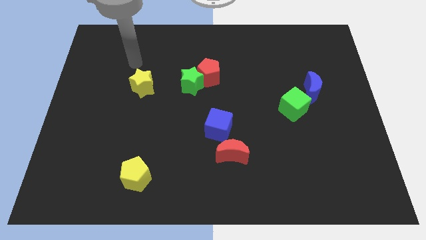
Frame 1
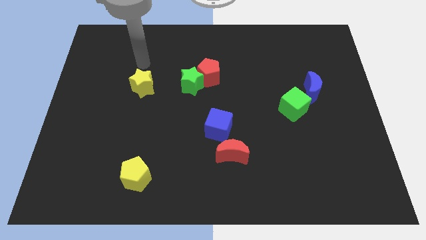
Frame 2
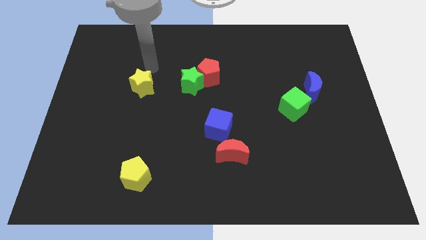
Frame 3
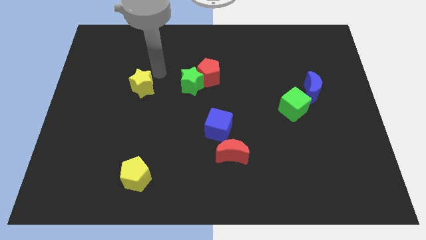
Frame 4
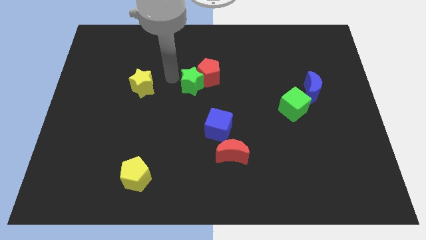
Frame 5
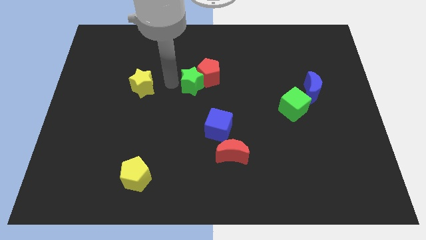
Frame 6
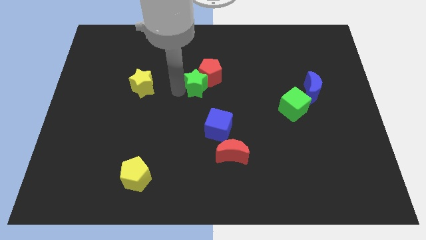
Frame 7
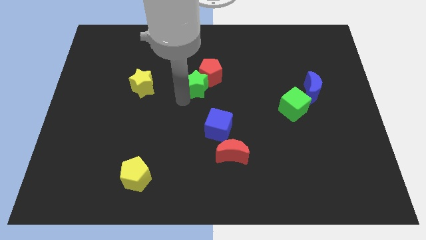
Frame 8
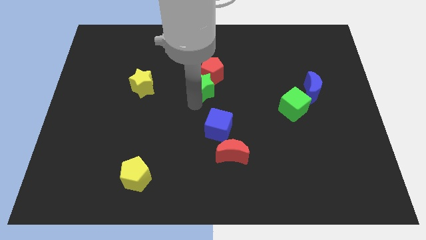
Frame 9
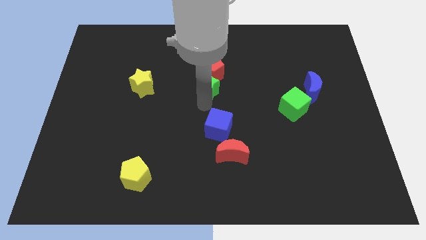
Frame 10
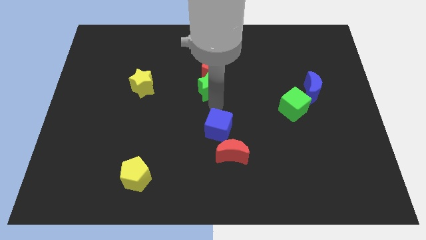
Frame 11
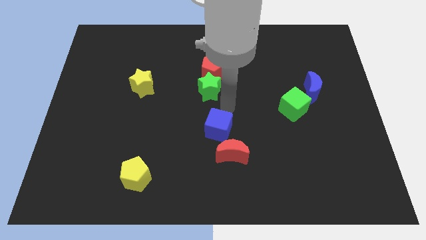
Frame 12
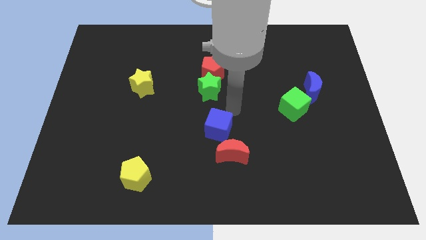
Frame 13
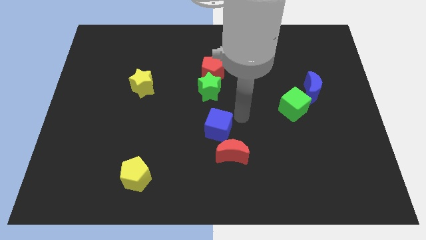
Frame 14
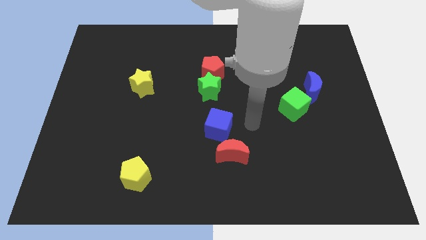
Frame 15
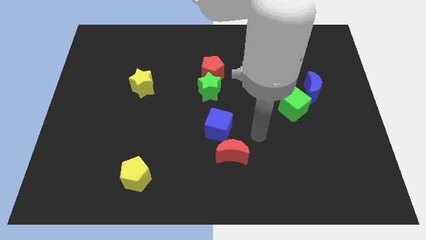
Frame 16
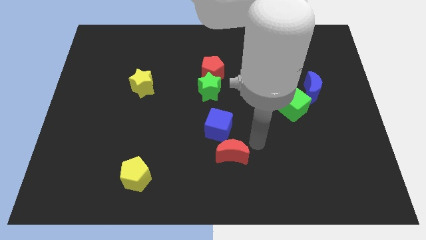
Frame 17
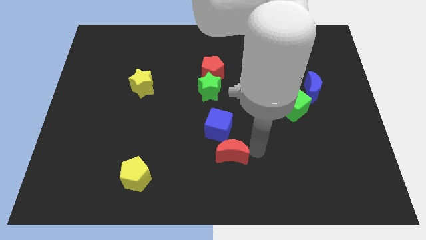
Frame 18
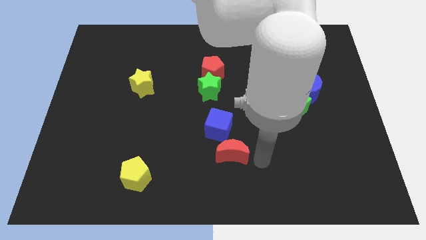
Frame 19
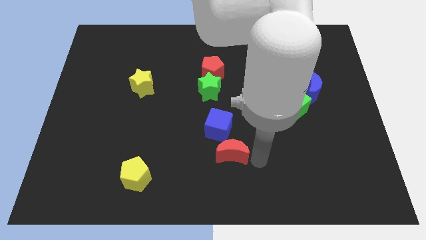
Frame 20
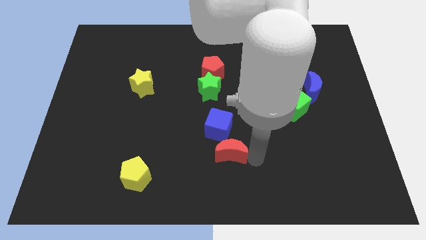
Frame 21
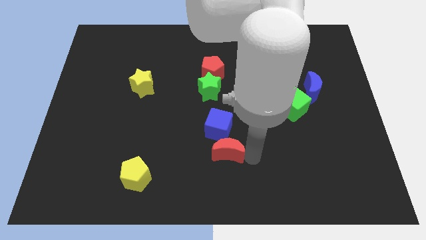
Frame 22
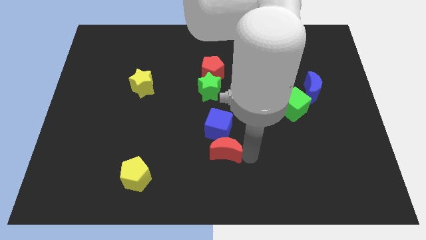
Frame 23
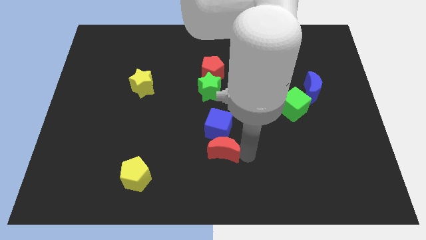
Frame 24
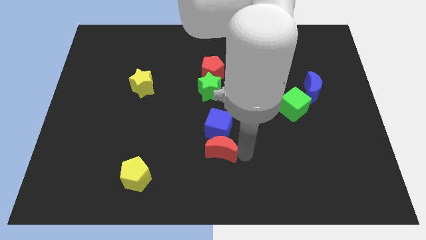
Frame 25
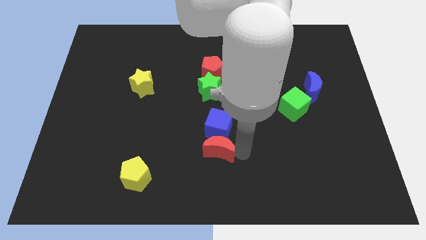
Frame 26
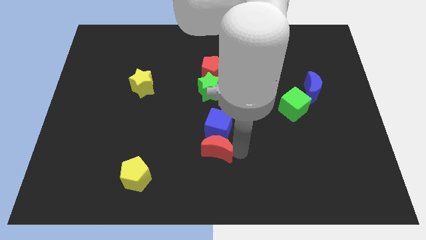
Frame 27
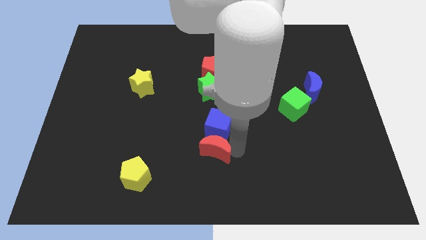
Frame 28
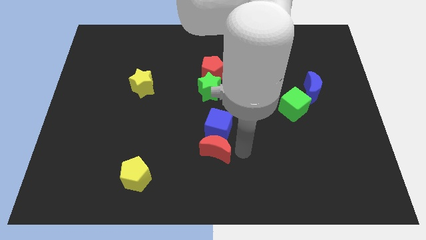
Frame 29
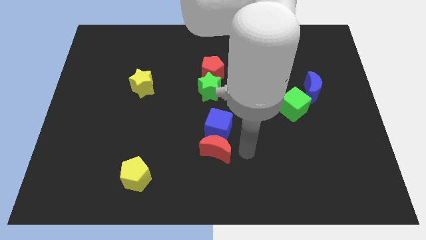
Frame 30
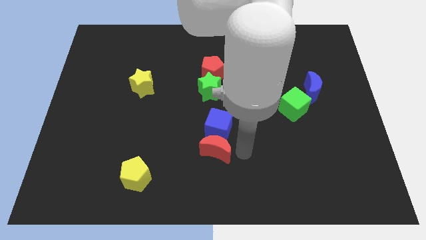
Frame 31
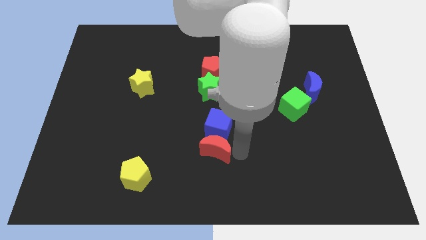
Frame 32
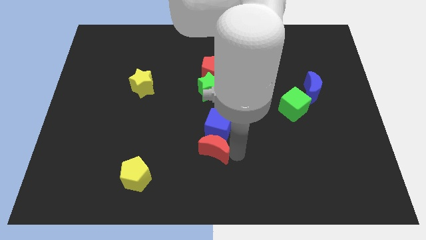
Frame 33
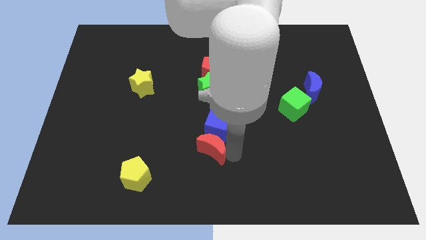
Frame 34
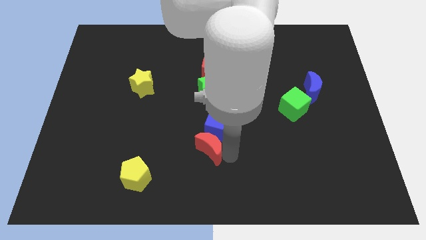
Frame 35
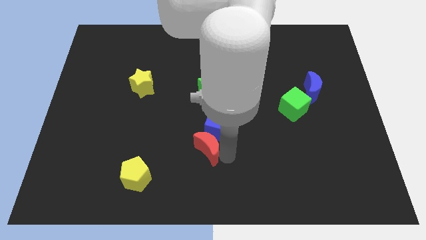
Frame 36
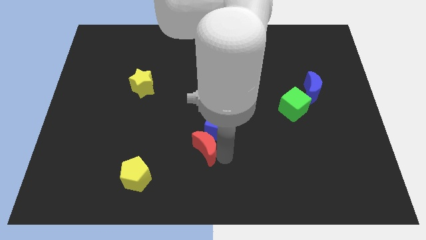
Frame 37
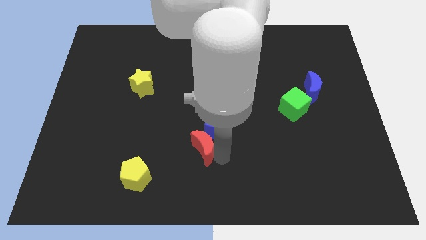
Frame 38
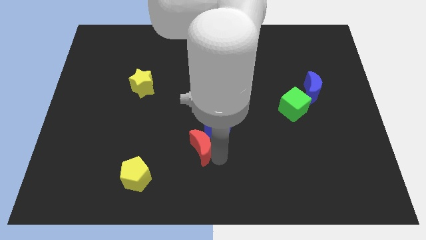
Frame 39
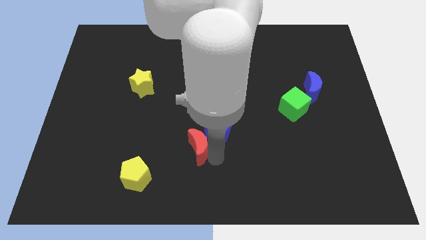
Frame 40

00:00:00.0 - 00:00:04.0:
slightly slide the red moon to the left

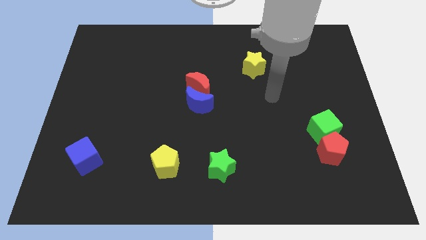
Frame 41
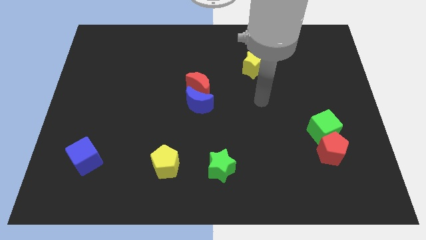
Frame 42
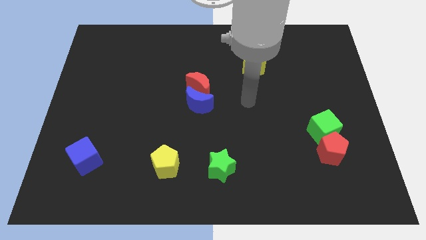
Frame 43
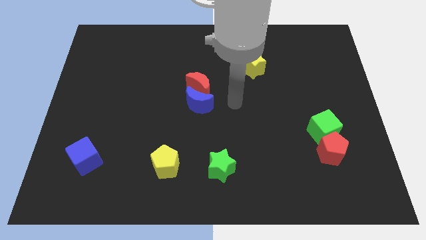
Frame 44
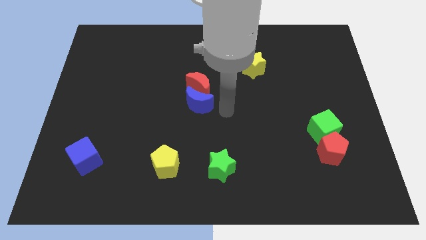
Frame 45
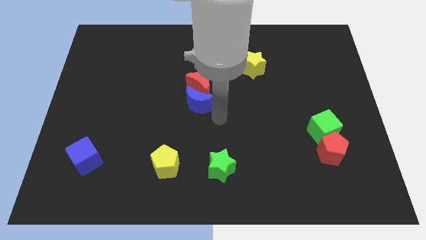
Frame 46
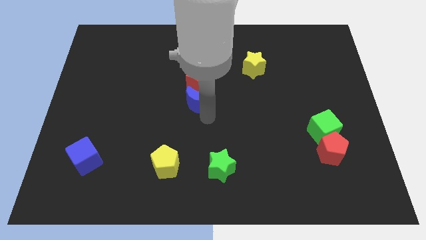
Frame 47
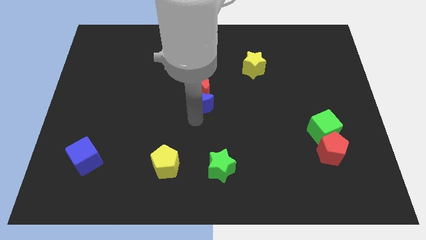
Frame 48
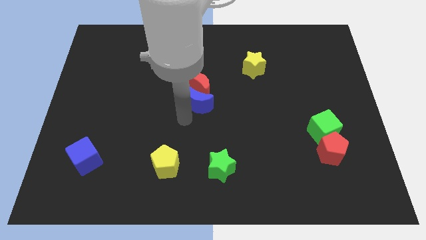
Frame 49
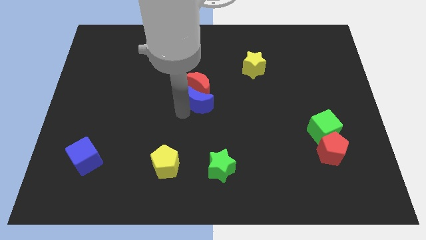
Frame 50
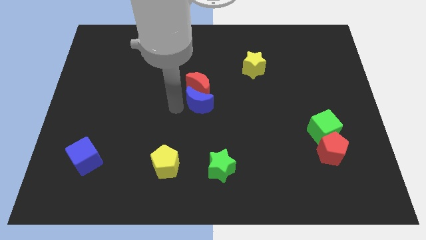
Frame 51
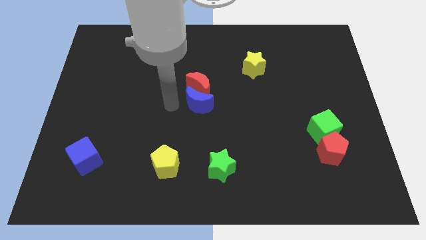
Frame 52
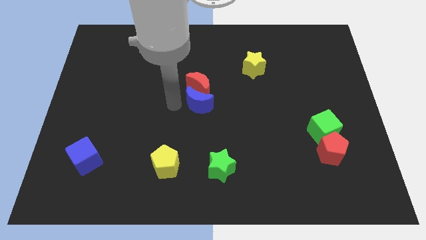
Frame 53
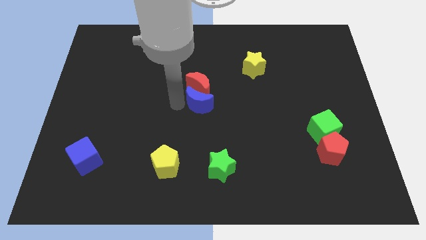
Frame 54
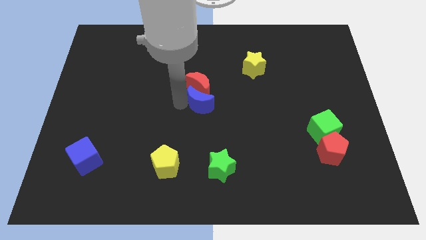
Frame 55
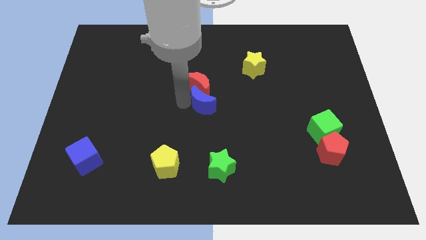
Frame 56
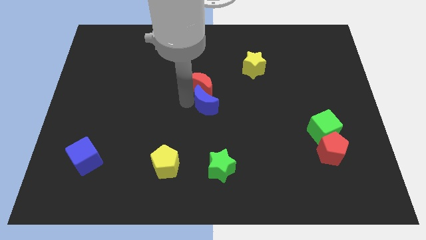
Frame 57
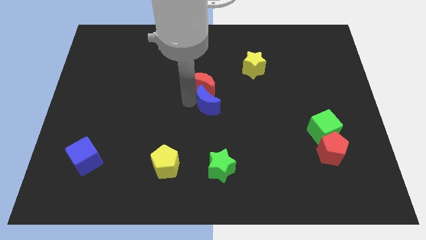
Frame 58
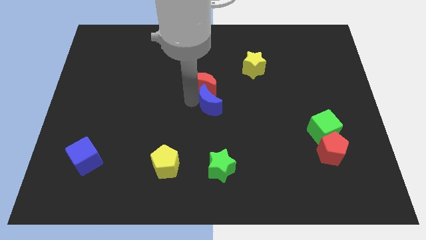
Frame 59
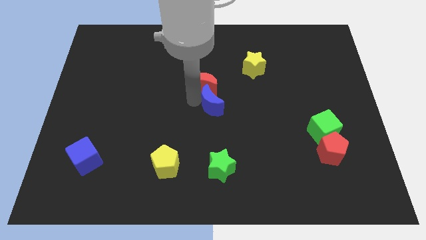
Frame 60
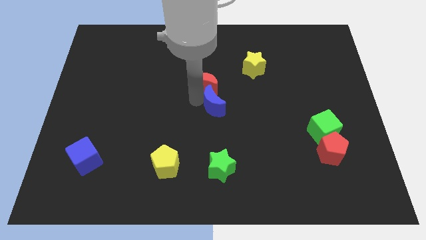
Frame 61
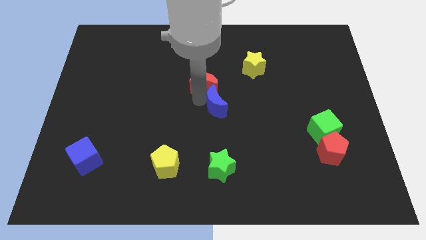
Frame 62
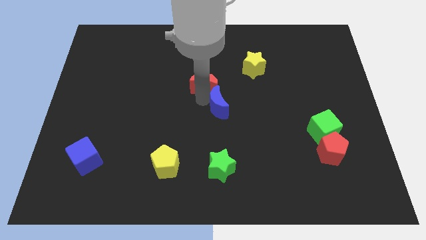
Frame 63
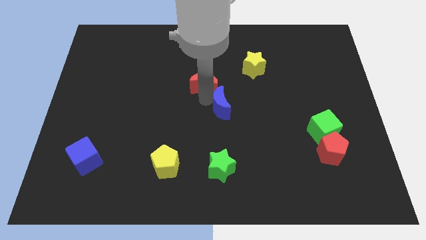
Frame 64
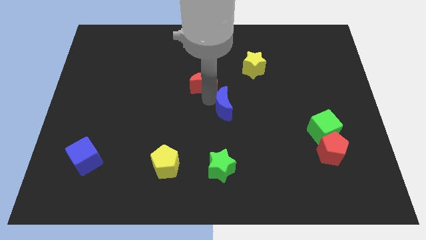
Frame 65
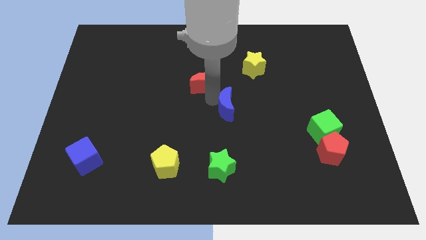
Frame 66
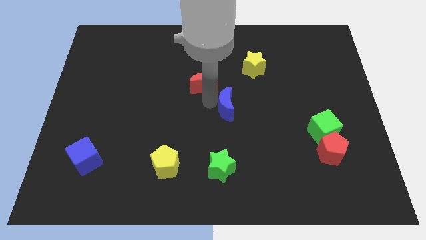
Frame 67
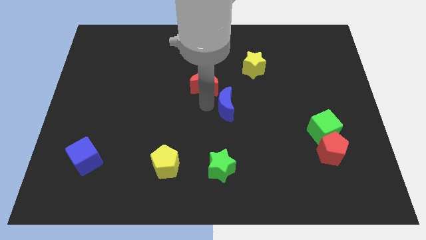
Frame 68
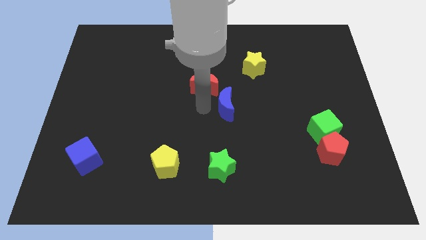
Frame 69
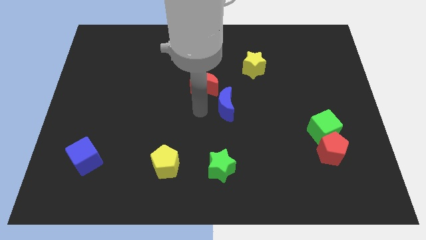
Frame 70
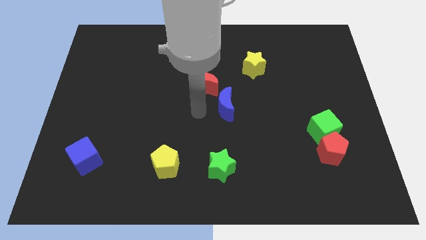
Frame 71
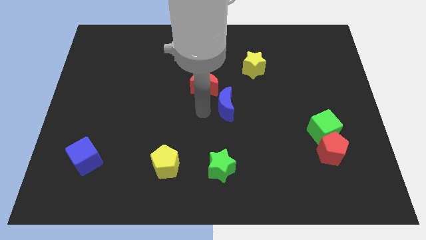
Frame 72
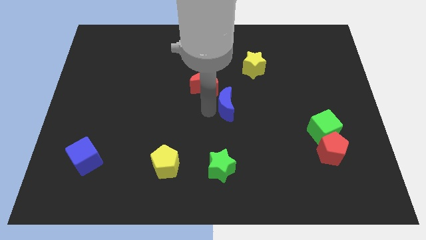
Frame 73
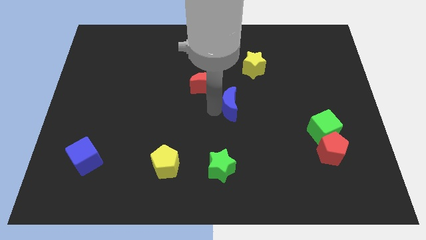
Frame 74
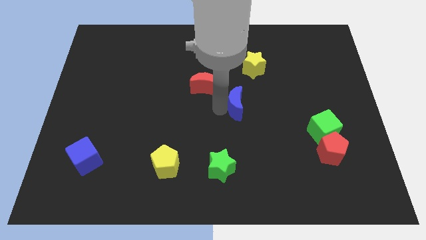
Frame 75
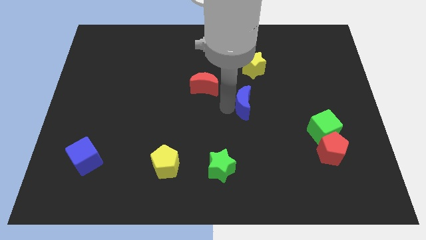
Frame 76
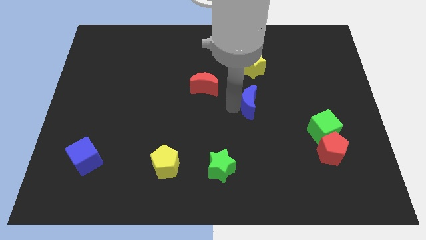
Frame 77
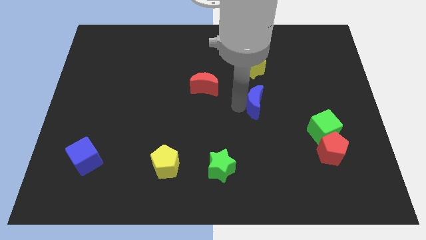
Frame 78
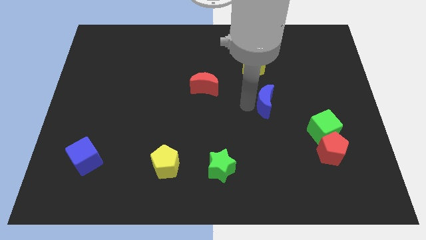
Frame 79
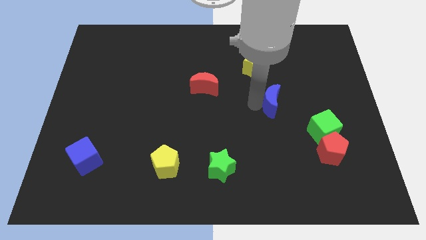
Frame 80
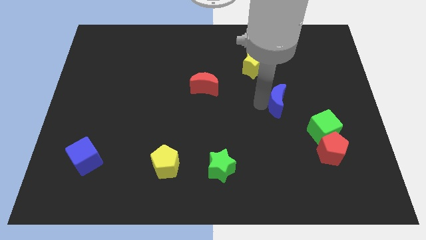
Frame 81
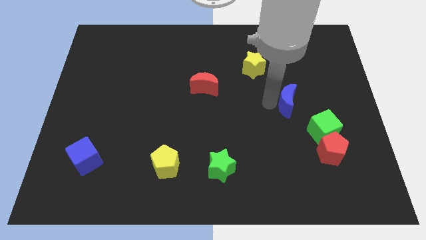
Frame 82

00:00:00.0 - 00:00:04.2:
slide the blue moon right
